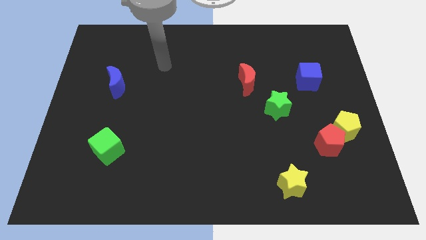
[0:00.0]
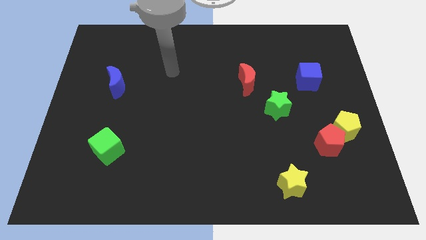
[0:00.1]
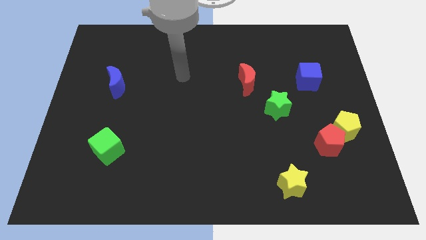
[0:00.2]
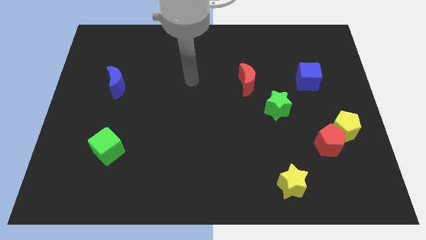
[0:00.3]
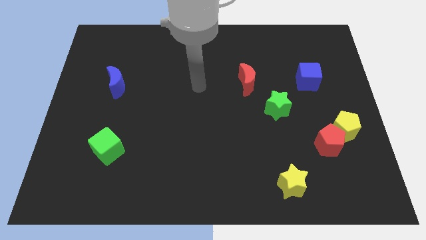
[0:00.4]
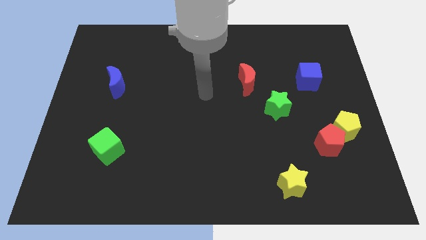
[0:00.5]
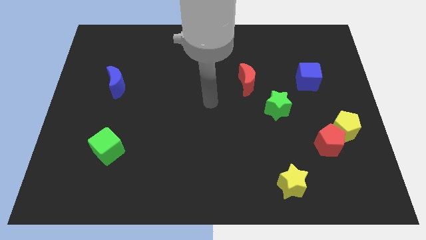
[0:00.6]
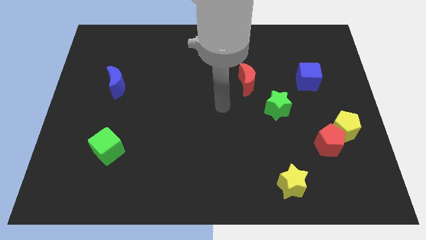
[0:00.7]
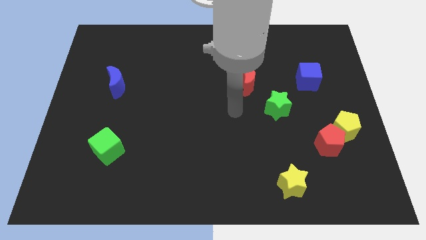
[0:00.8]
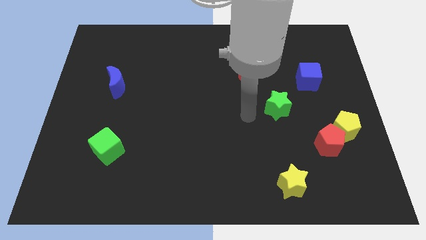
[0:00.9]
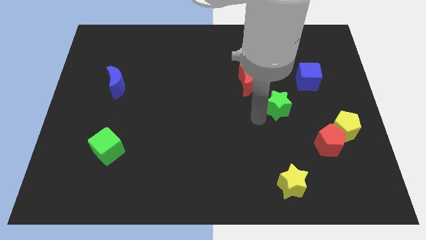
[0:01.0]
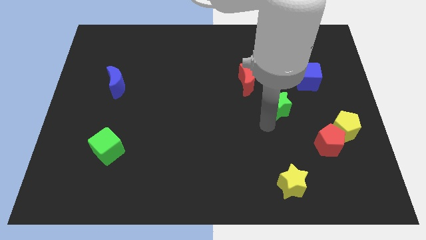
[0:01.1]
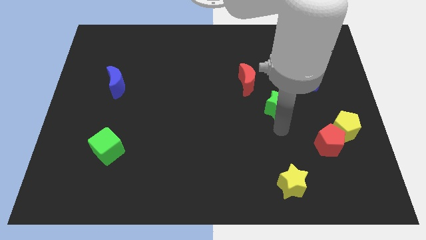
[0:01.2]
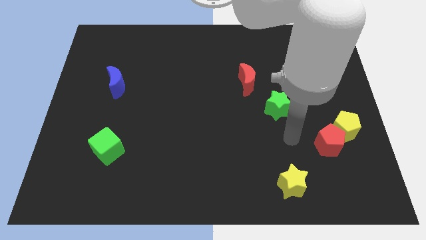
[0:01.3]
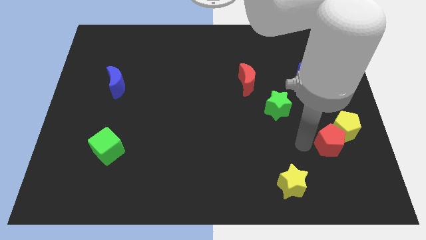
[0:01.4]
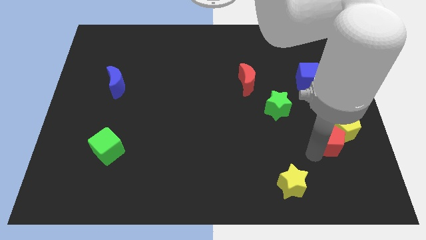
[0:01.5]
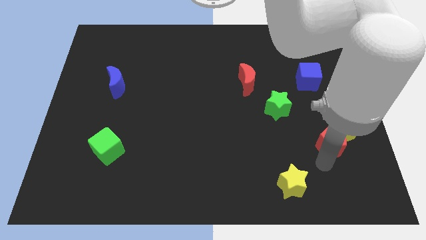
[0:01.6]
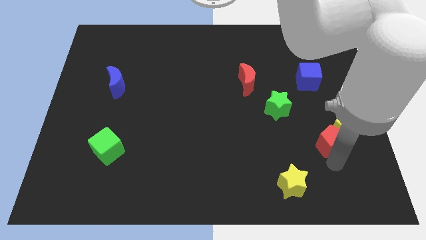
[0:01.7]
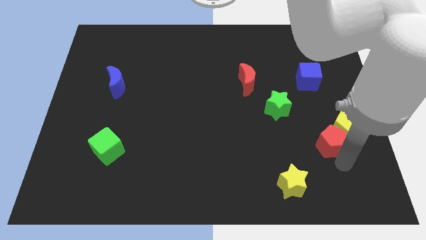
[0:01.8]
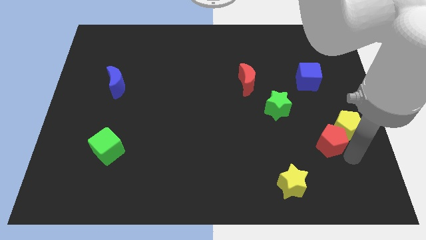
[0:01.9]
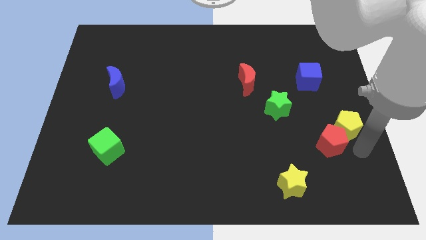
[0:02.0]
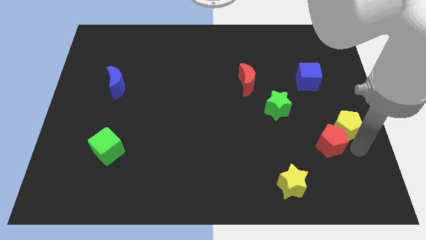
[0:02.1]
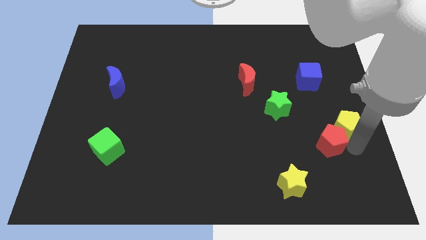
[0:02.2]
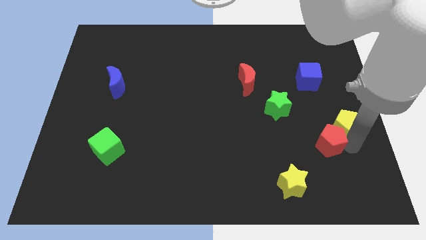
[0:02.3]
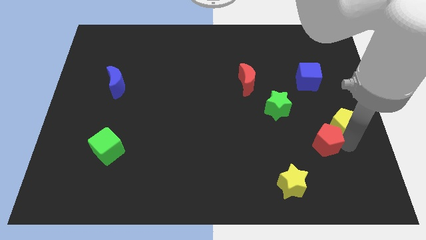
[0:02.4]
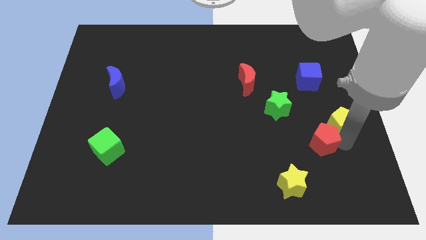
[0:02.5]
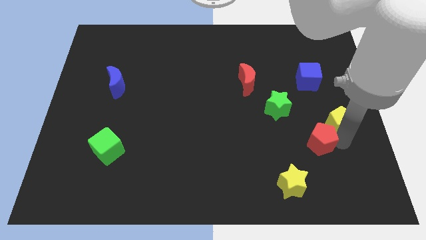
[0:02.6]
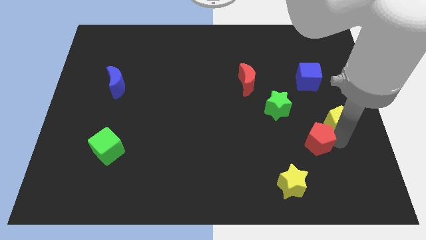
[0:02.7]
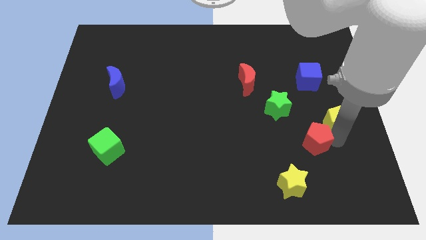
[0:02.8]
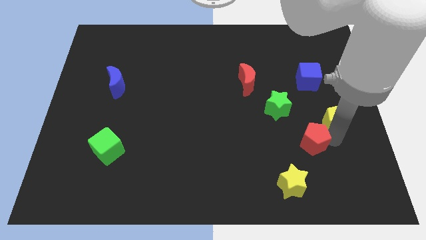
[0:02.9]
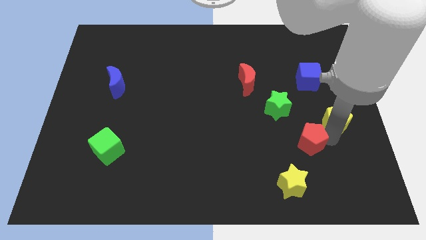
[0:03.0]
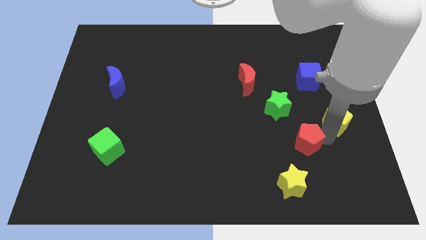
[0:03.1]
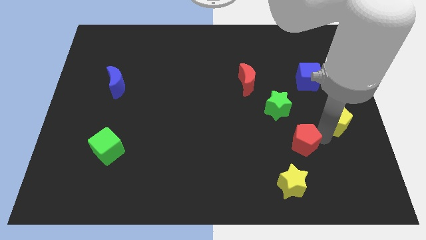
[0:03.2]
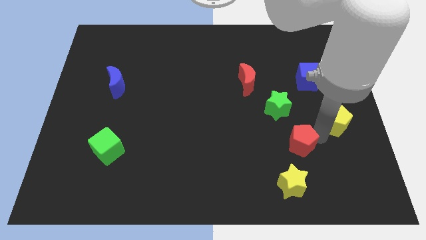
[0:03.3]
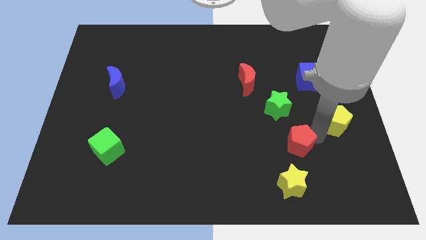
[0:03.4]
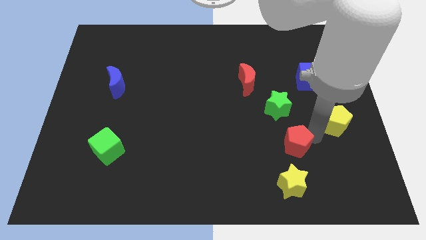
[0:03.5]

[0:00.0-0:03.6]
slide the red pentagon left slightly

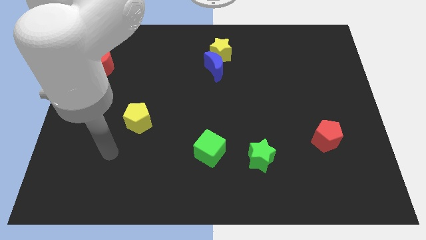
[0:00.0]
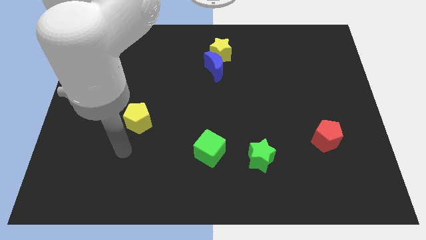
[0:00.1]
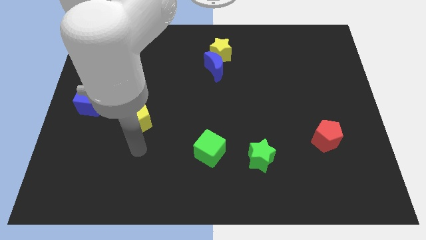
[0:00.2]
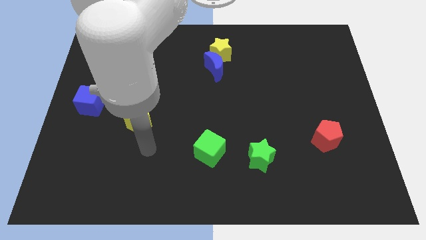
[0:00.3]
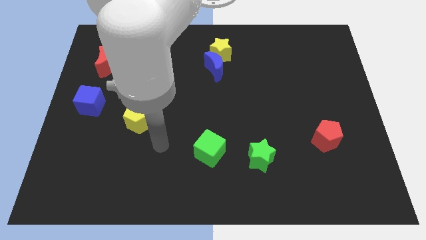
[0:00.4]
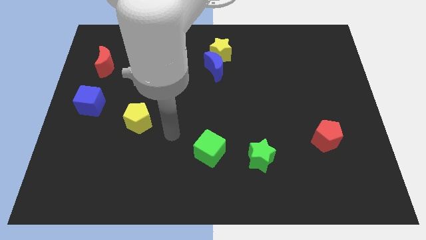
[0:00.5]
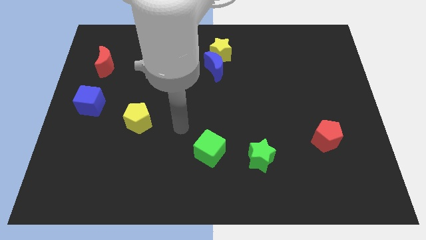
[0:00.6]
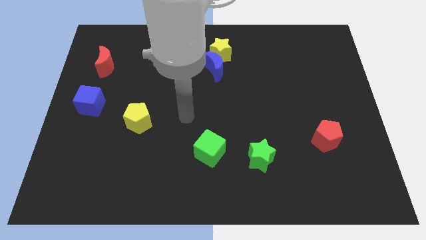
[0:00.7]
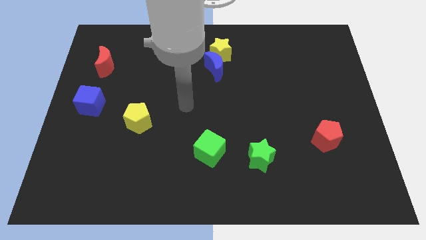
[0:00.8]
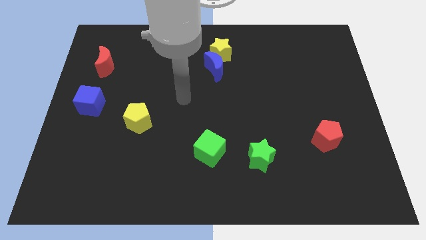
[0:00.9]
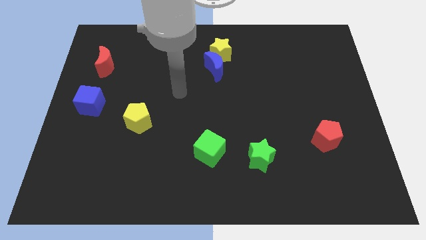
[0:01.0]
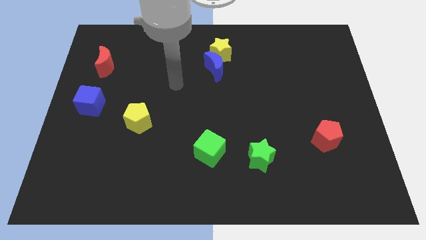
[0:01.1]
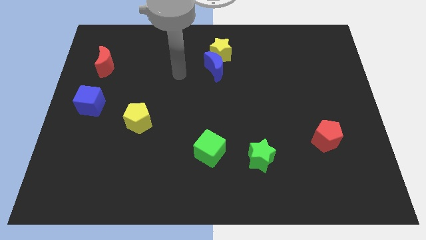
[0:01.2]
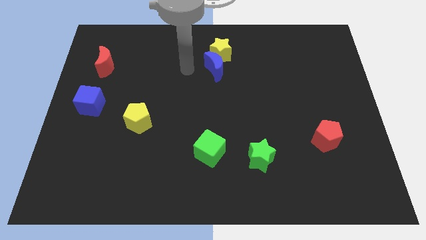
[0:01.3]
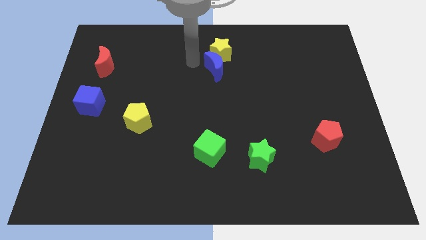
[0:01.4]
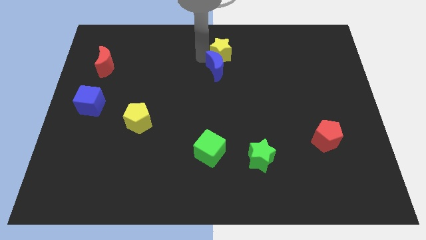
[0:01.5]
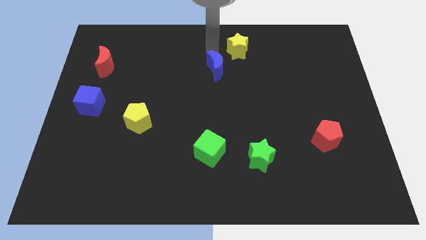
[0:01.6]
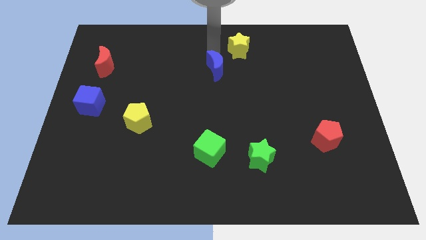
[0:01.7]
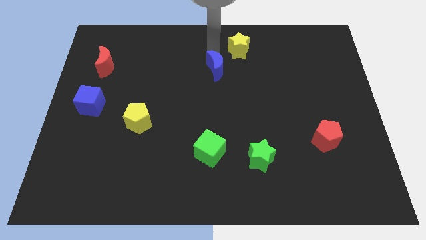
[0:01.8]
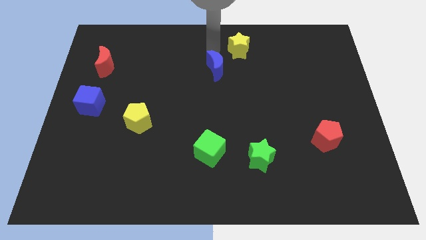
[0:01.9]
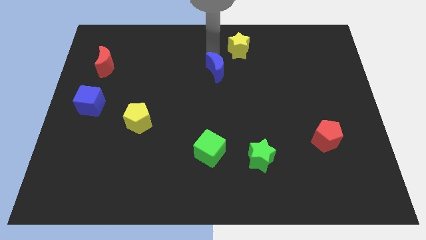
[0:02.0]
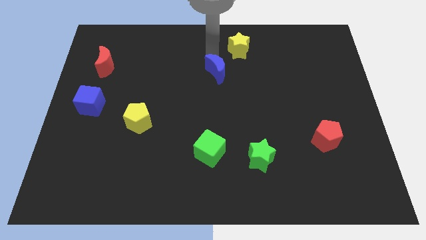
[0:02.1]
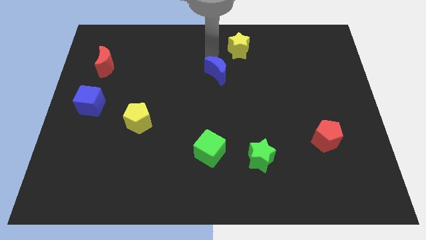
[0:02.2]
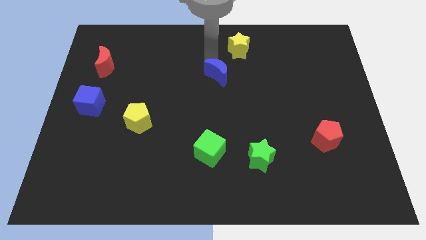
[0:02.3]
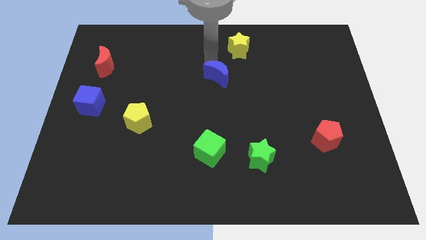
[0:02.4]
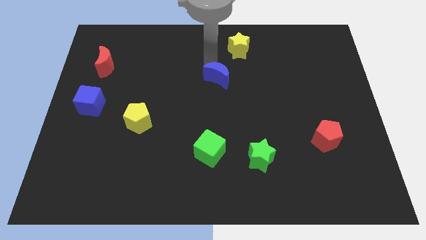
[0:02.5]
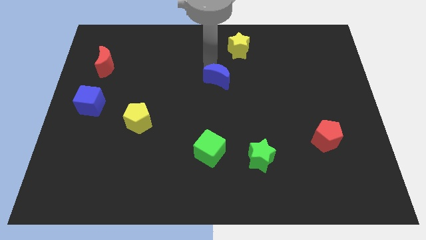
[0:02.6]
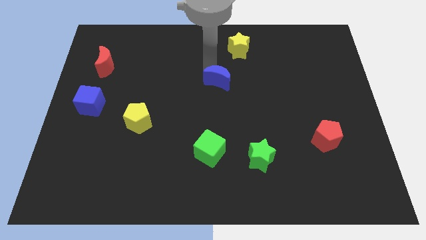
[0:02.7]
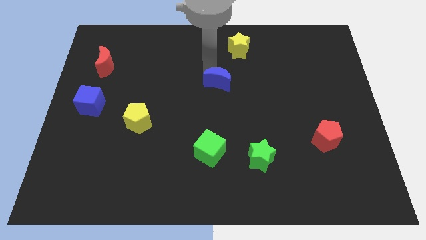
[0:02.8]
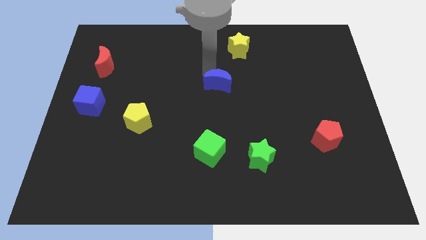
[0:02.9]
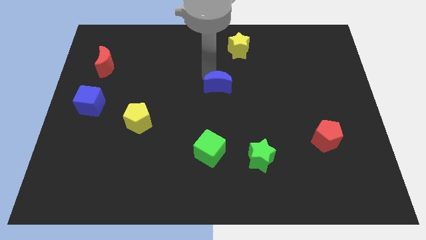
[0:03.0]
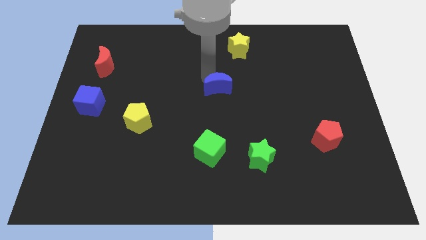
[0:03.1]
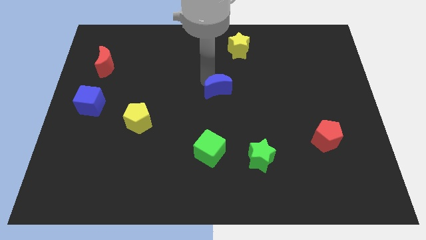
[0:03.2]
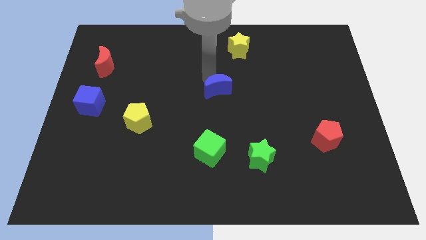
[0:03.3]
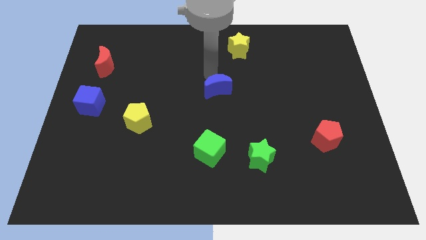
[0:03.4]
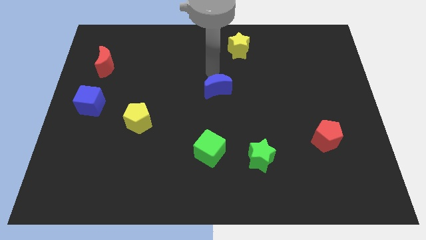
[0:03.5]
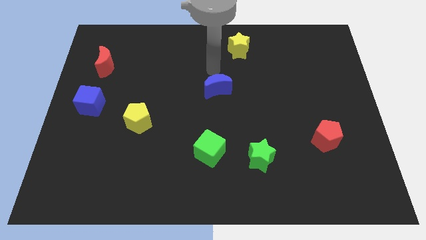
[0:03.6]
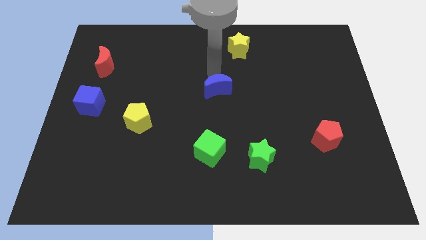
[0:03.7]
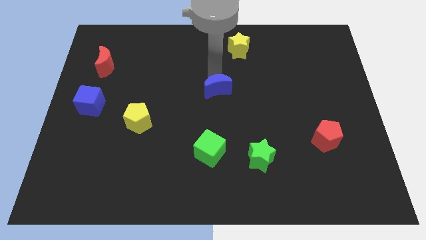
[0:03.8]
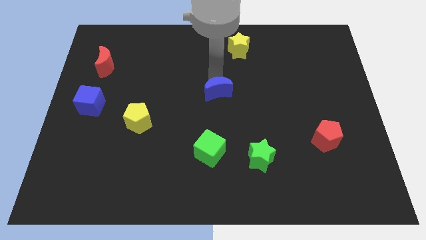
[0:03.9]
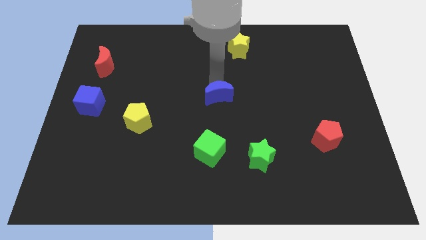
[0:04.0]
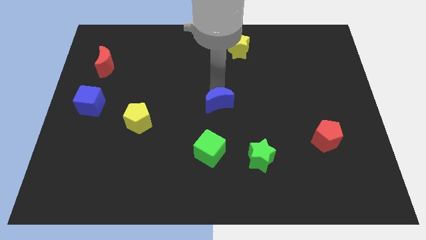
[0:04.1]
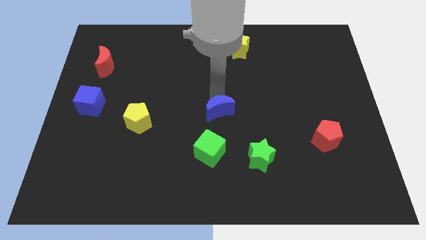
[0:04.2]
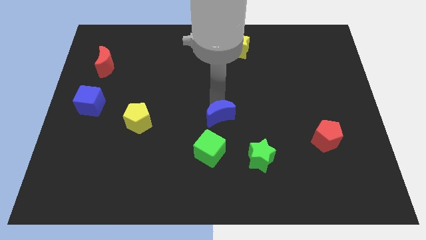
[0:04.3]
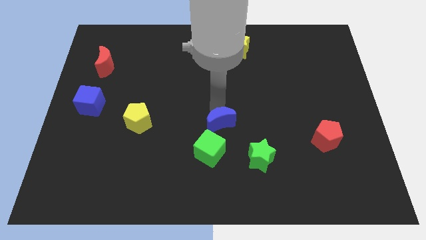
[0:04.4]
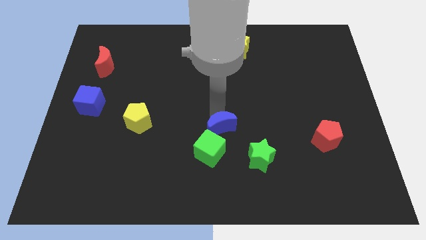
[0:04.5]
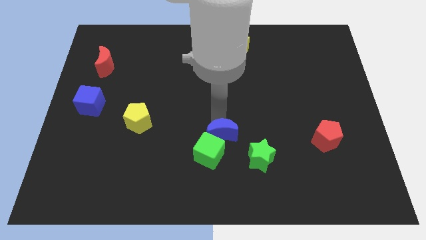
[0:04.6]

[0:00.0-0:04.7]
push the blue moon downwards
